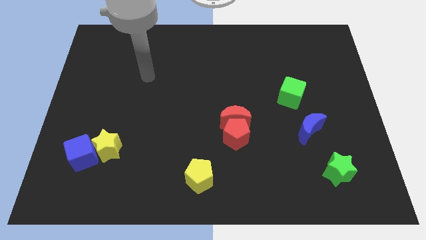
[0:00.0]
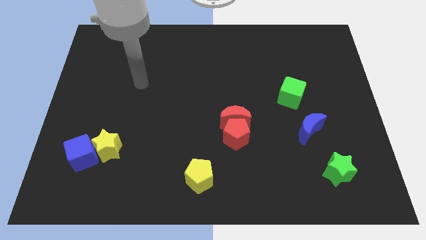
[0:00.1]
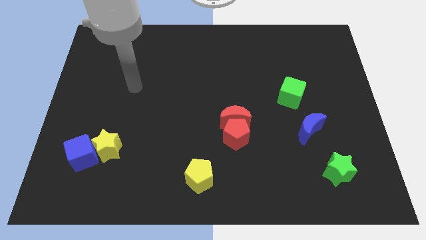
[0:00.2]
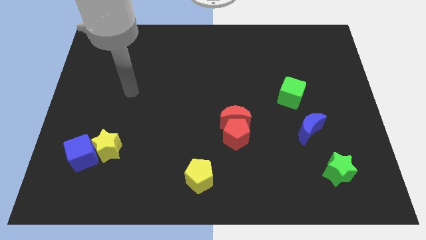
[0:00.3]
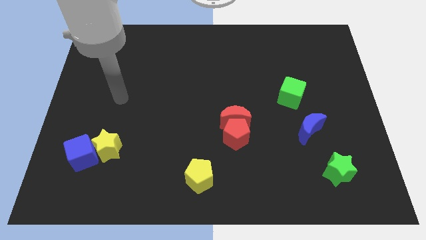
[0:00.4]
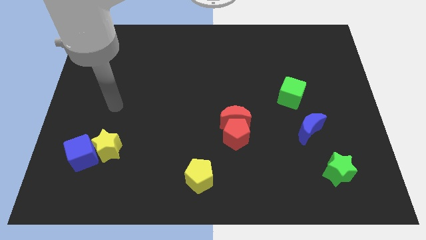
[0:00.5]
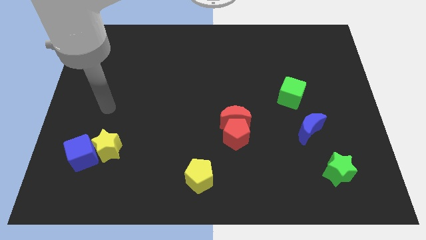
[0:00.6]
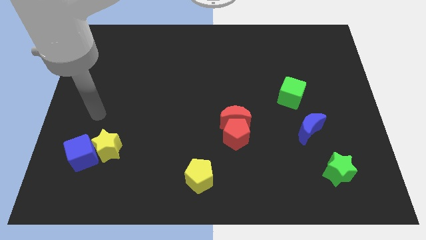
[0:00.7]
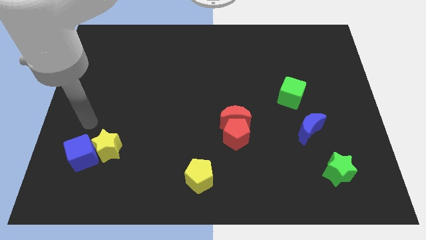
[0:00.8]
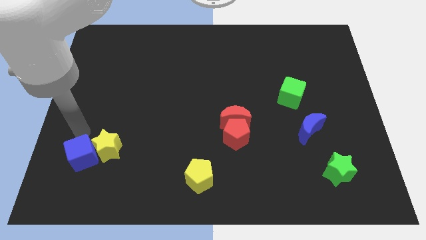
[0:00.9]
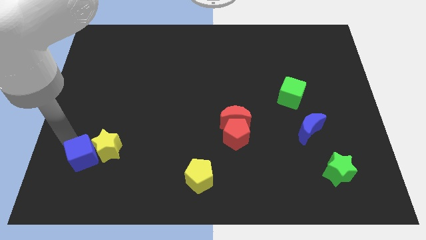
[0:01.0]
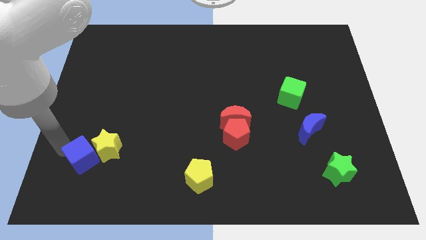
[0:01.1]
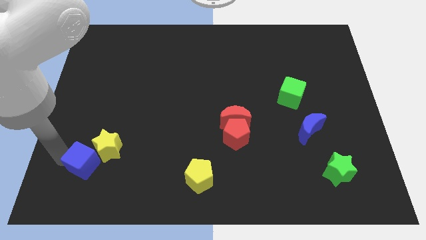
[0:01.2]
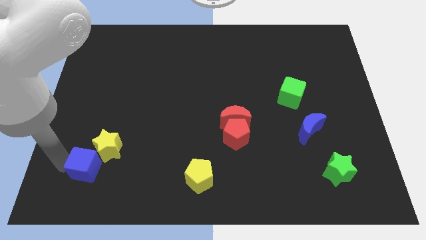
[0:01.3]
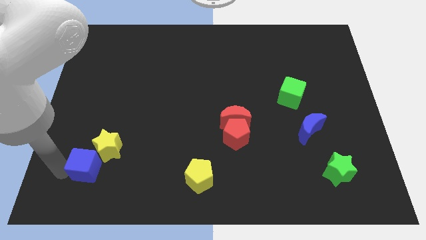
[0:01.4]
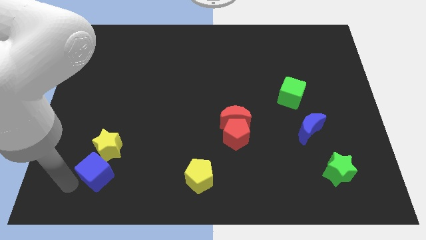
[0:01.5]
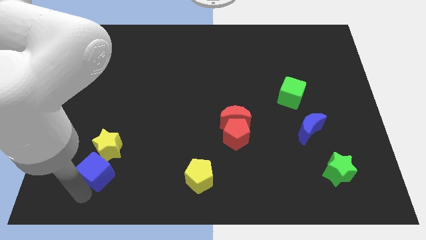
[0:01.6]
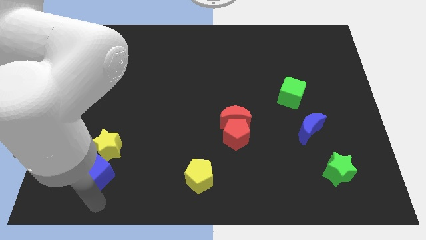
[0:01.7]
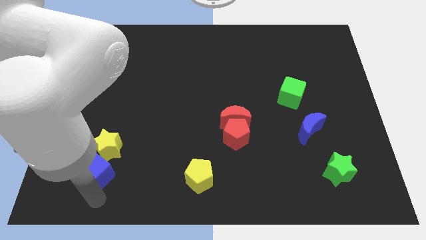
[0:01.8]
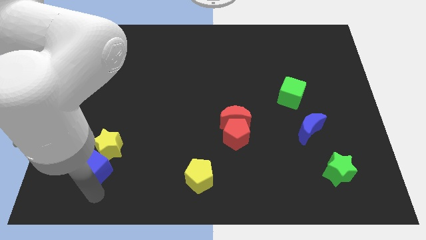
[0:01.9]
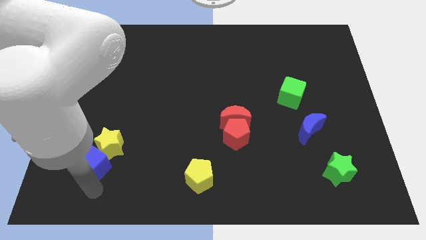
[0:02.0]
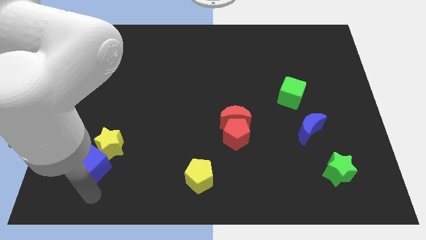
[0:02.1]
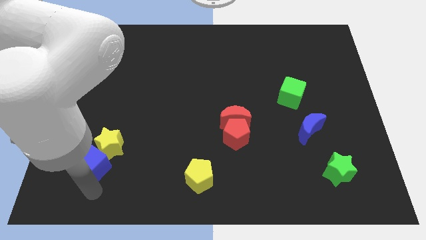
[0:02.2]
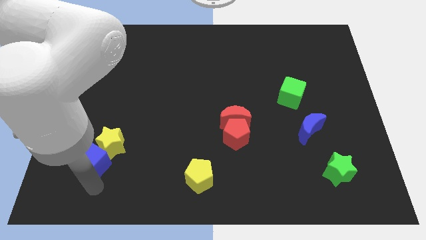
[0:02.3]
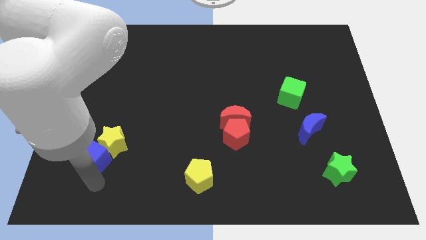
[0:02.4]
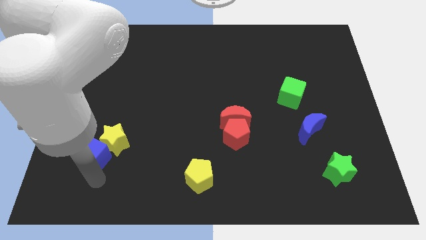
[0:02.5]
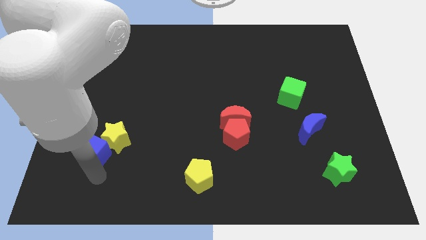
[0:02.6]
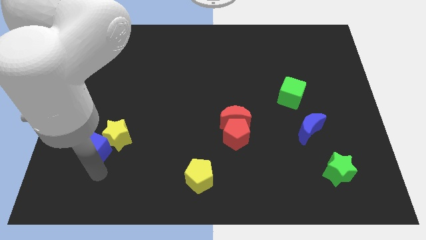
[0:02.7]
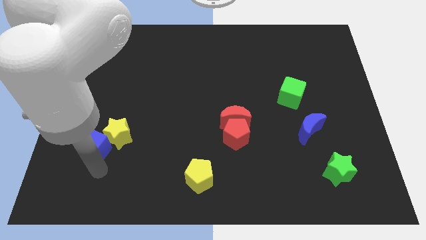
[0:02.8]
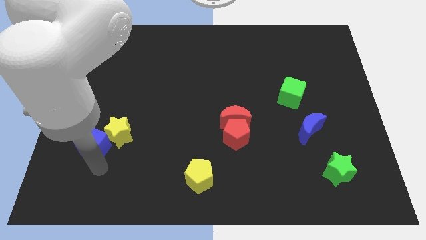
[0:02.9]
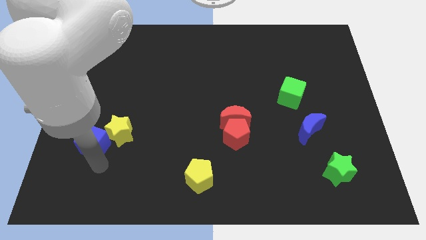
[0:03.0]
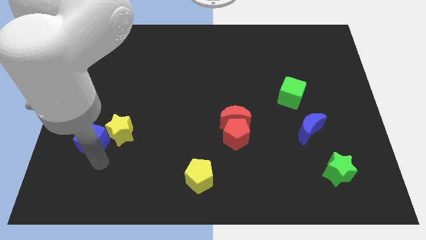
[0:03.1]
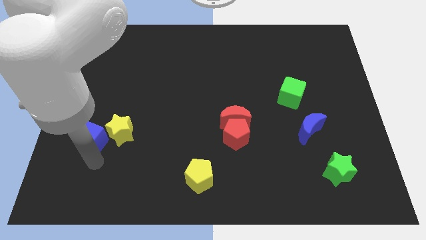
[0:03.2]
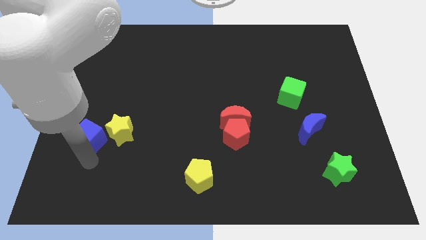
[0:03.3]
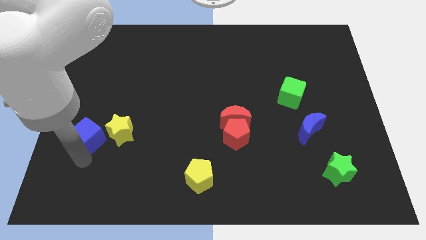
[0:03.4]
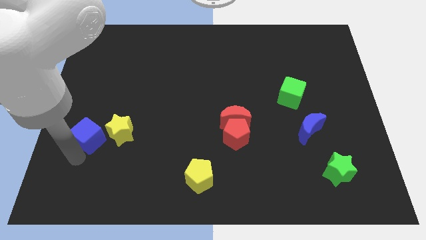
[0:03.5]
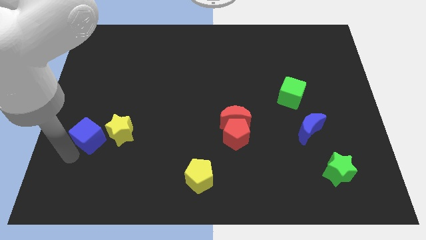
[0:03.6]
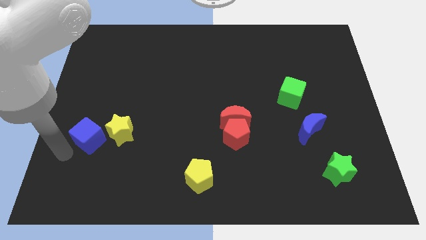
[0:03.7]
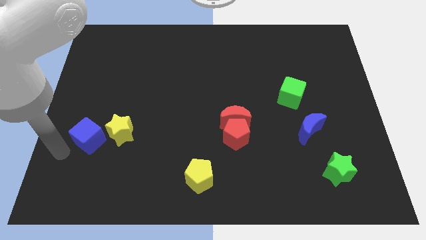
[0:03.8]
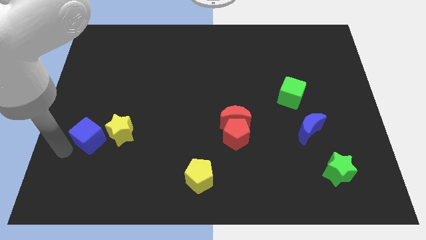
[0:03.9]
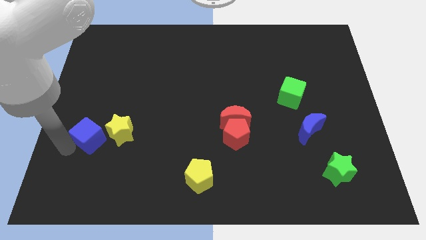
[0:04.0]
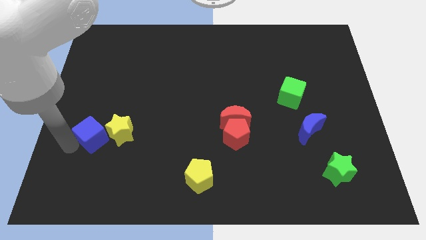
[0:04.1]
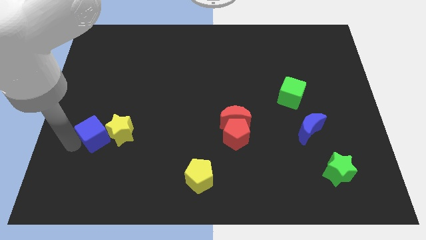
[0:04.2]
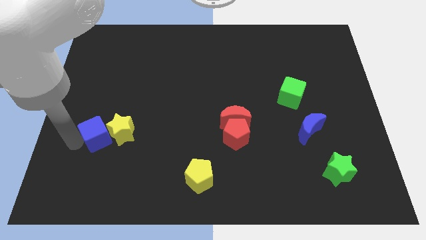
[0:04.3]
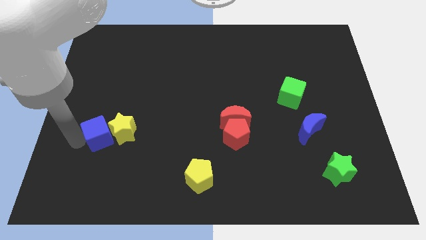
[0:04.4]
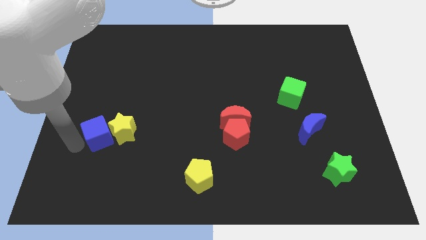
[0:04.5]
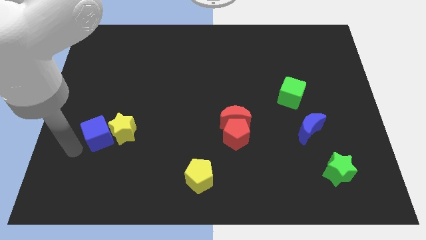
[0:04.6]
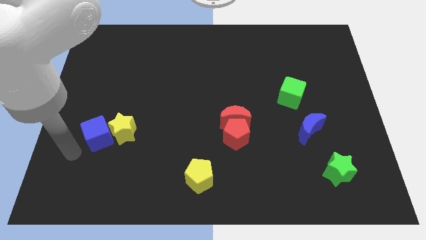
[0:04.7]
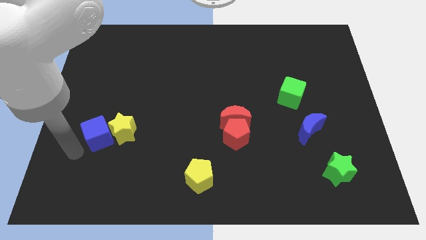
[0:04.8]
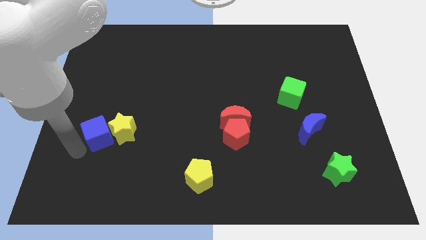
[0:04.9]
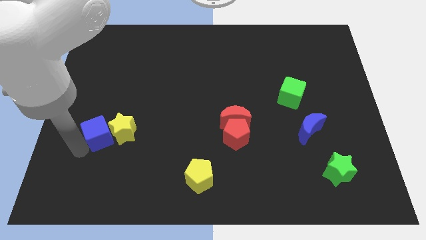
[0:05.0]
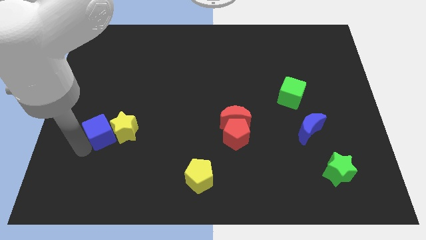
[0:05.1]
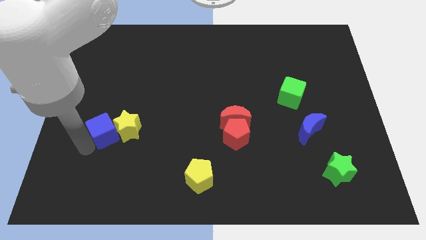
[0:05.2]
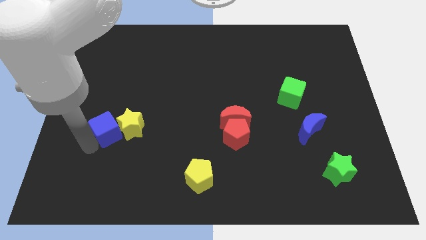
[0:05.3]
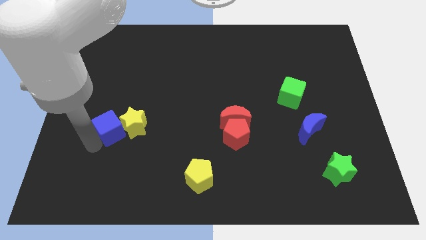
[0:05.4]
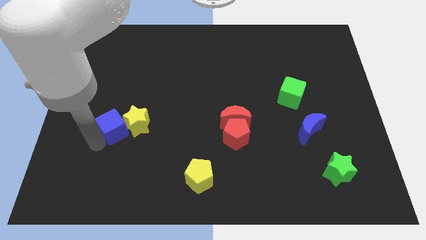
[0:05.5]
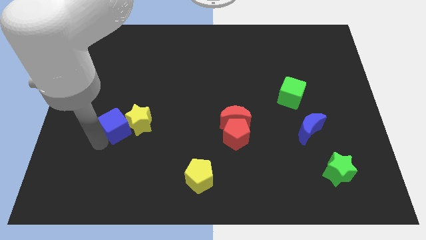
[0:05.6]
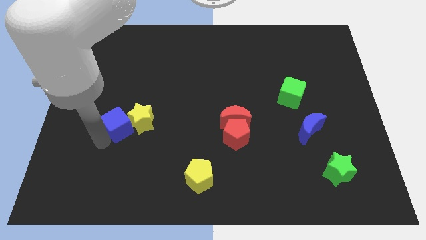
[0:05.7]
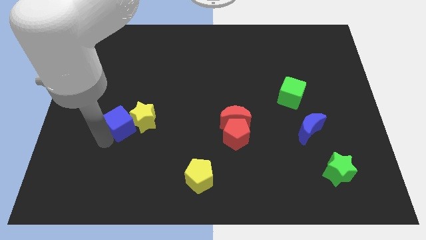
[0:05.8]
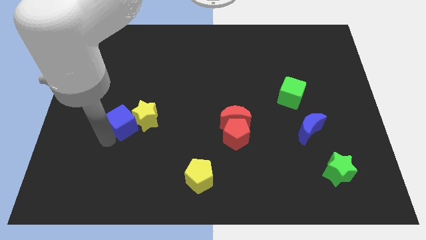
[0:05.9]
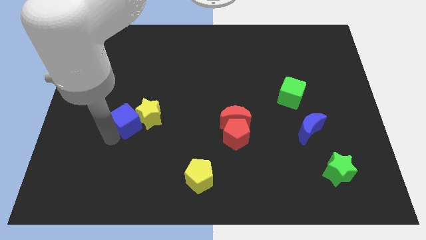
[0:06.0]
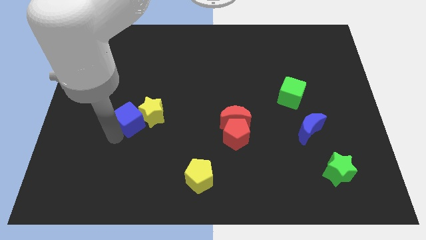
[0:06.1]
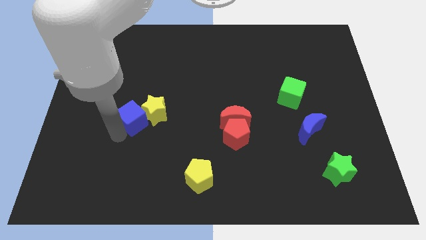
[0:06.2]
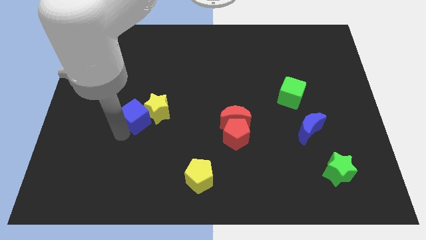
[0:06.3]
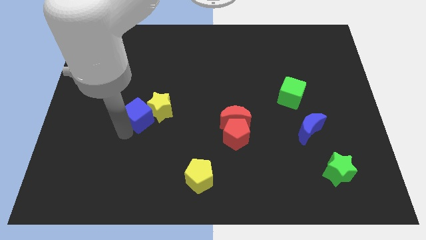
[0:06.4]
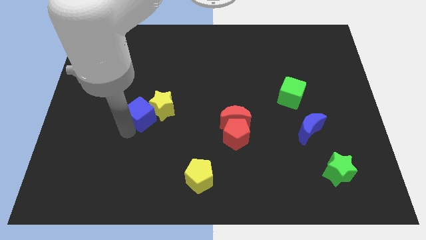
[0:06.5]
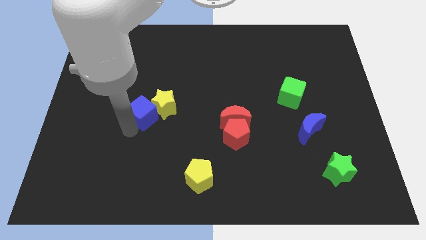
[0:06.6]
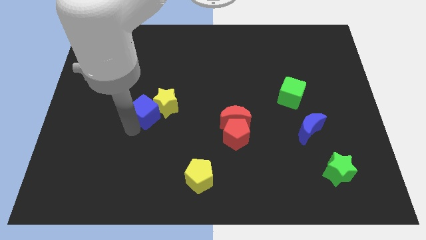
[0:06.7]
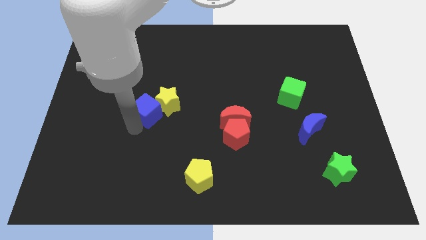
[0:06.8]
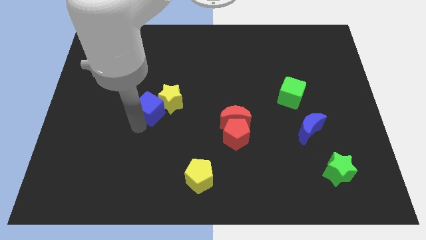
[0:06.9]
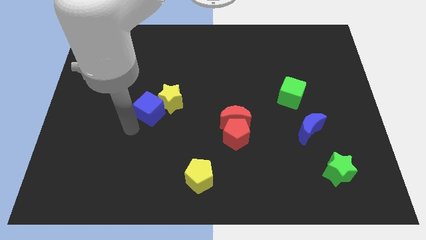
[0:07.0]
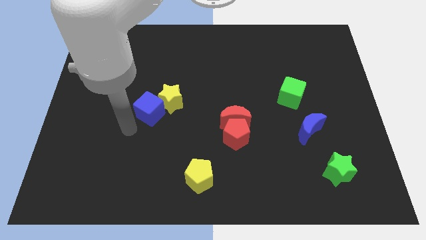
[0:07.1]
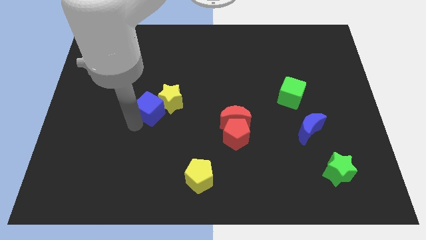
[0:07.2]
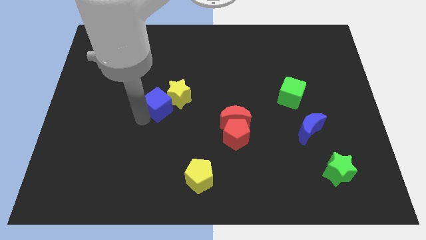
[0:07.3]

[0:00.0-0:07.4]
push the blue cube up and right

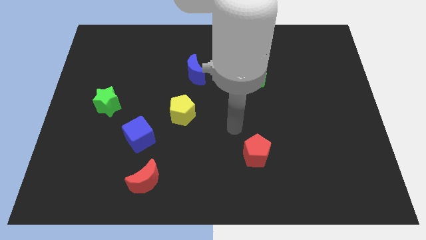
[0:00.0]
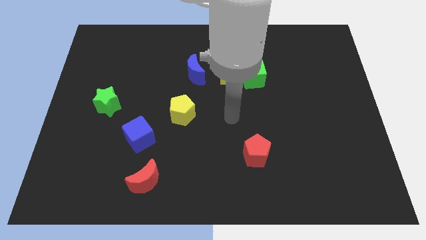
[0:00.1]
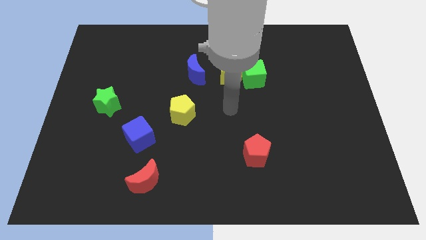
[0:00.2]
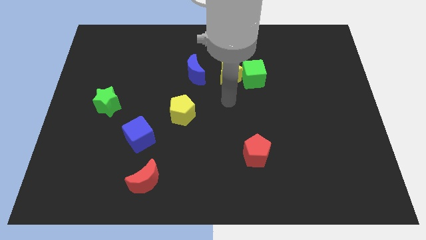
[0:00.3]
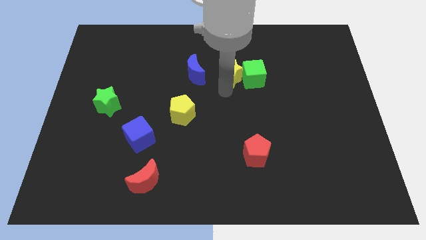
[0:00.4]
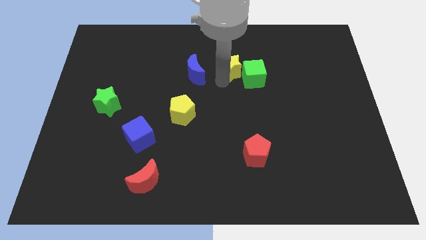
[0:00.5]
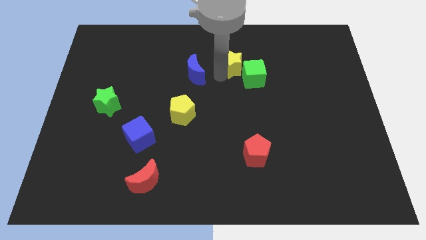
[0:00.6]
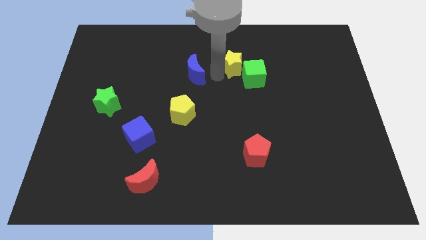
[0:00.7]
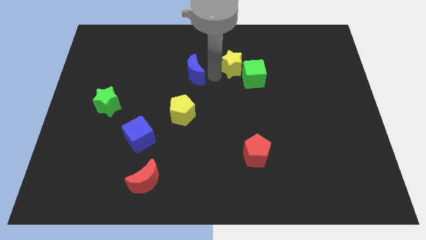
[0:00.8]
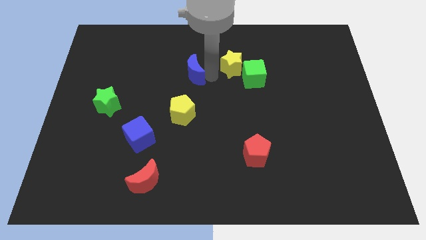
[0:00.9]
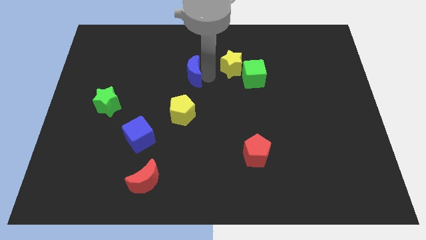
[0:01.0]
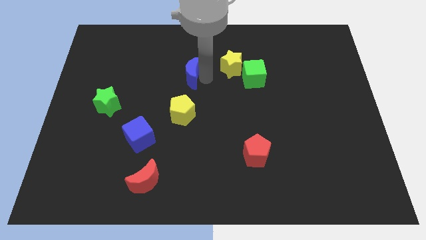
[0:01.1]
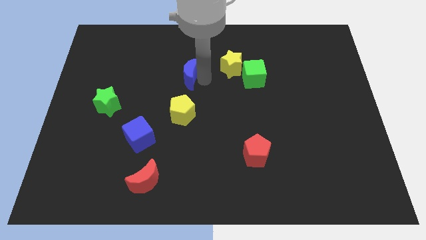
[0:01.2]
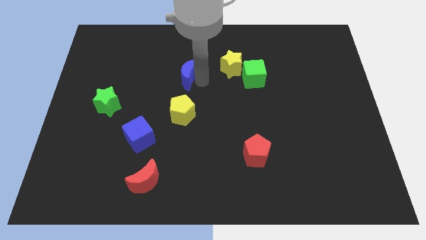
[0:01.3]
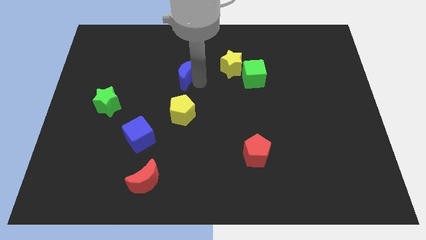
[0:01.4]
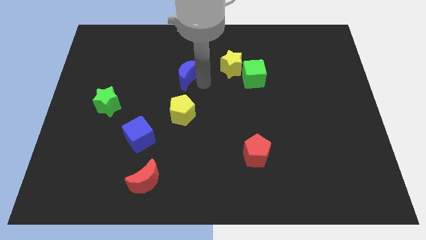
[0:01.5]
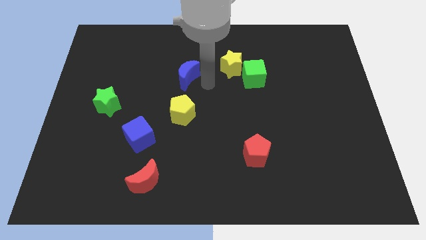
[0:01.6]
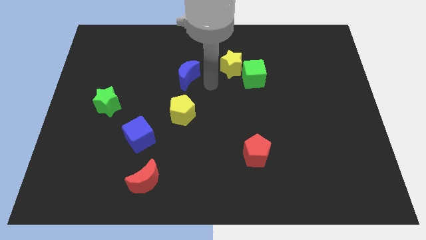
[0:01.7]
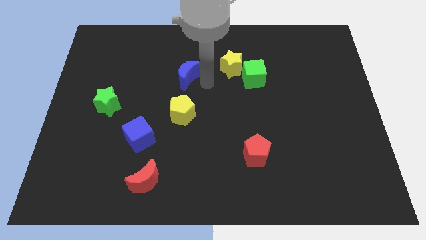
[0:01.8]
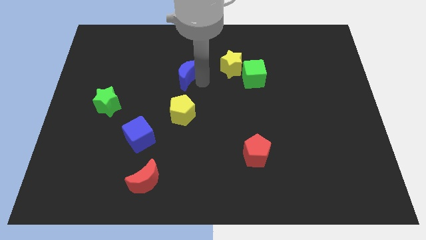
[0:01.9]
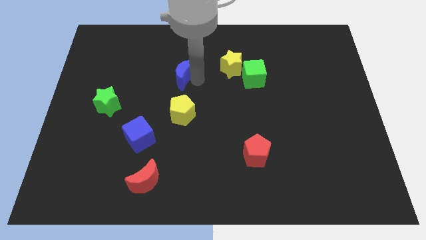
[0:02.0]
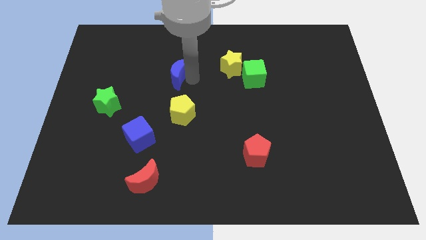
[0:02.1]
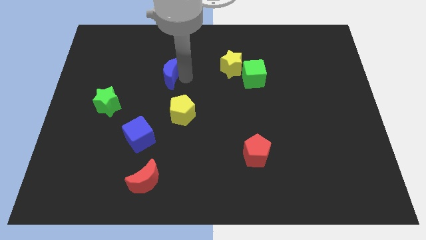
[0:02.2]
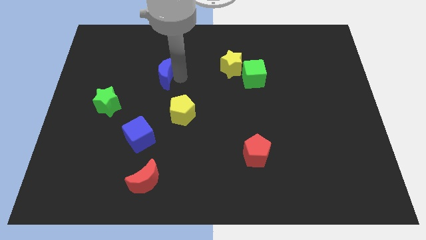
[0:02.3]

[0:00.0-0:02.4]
push the blue moon somewhat left
